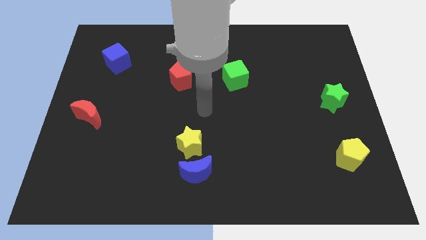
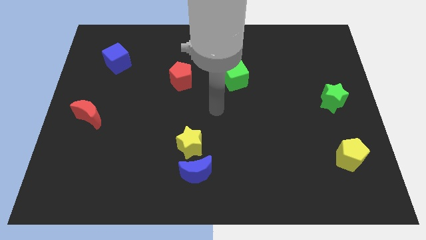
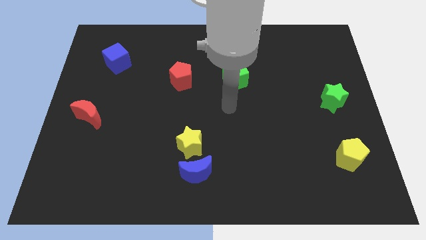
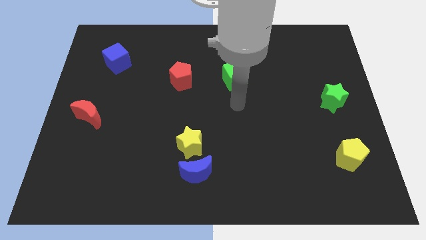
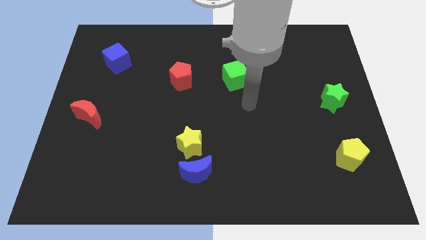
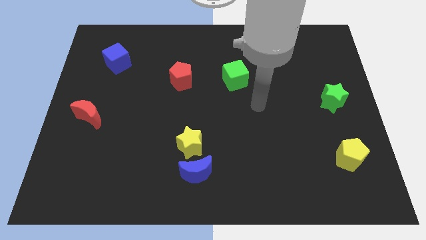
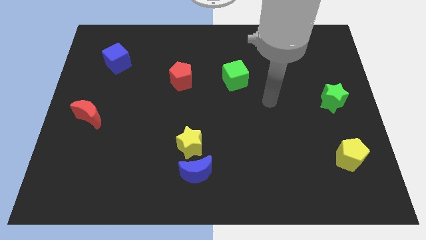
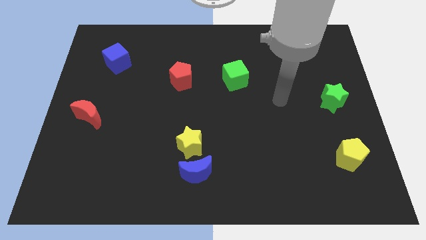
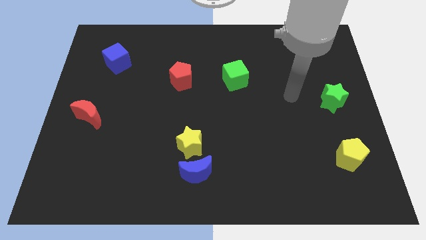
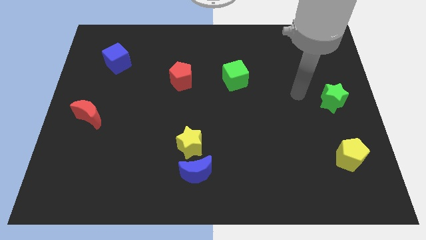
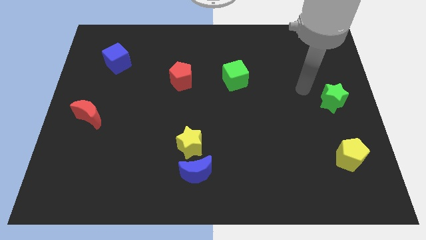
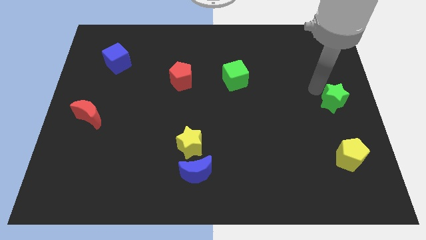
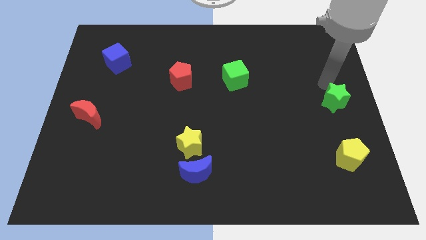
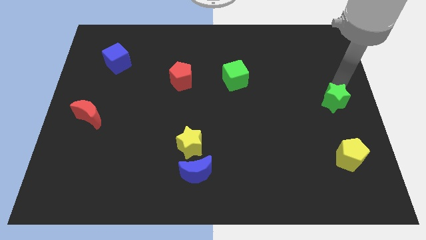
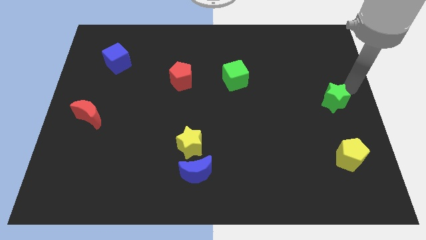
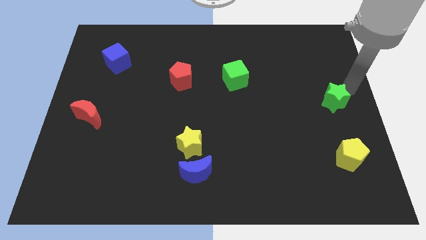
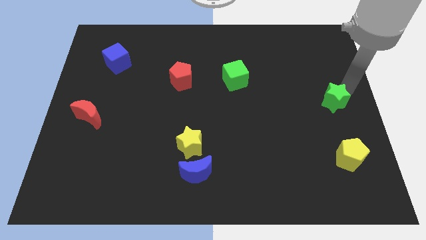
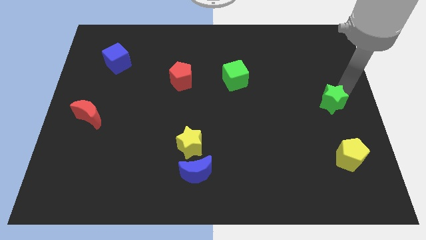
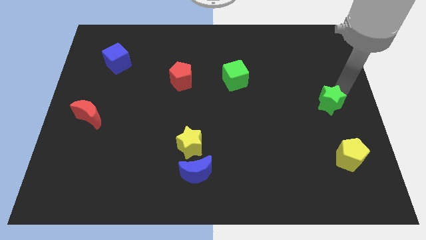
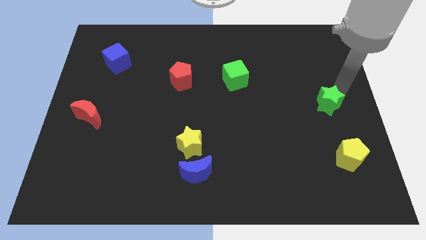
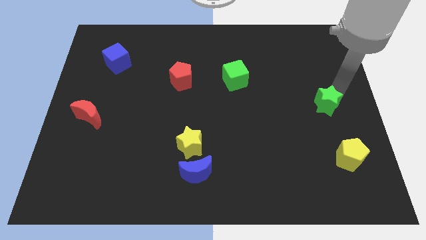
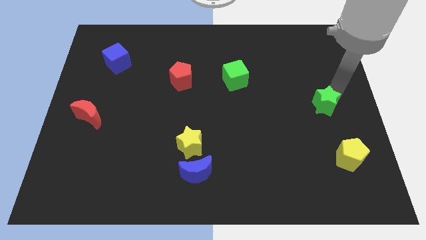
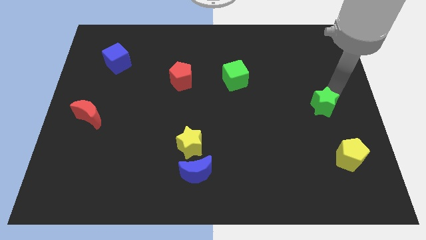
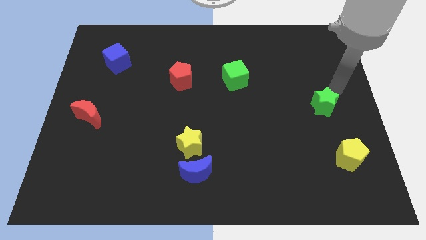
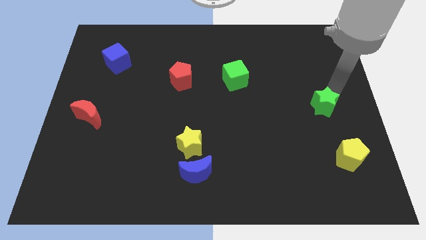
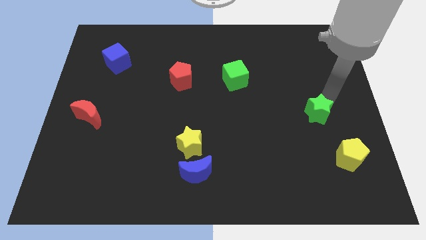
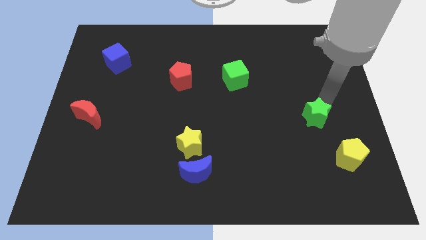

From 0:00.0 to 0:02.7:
push the green star down and then left a bit

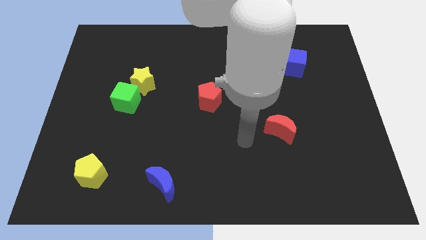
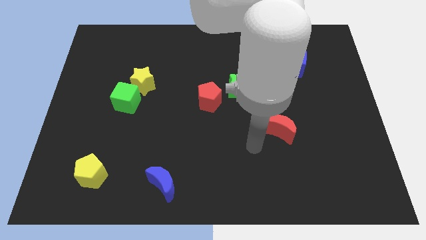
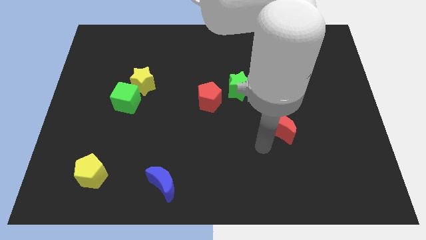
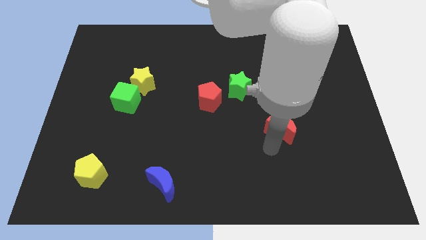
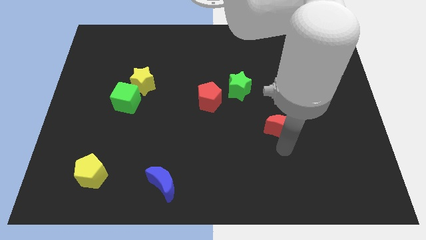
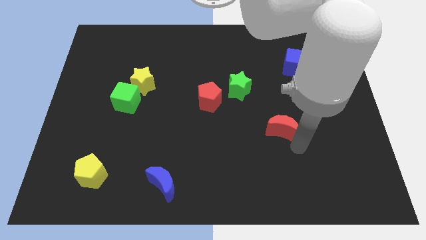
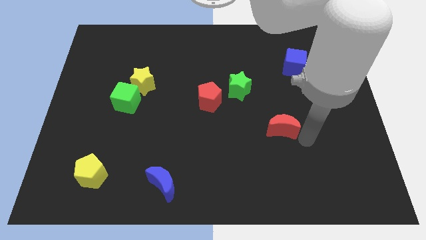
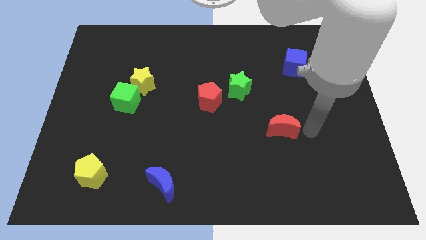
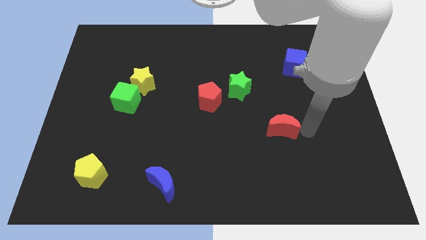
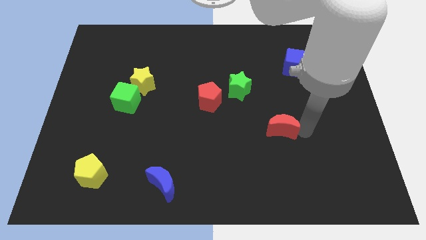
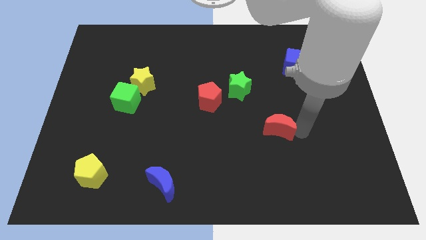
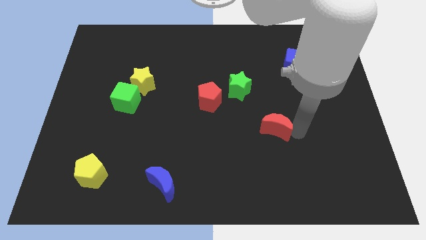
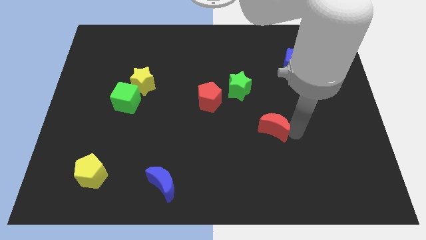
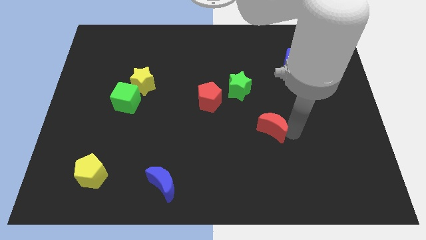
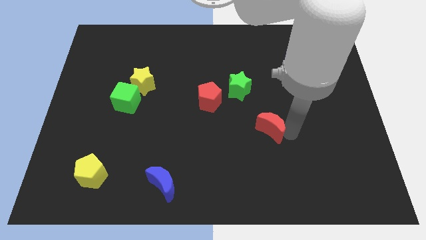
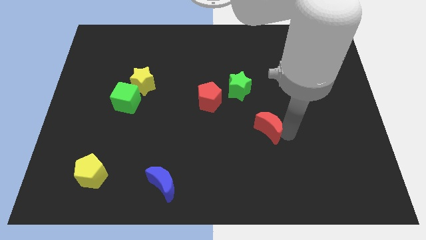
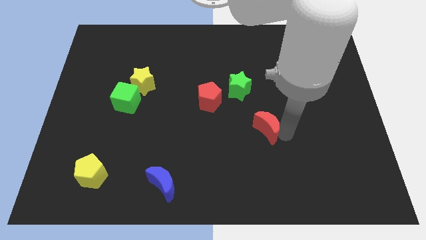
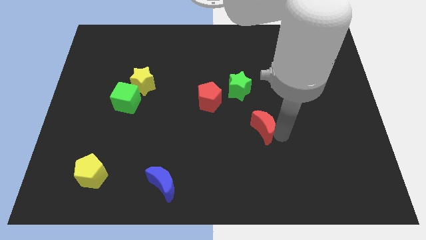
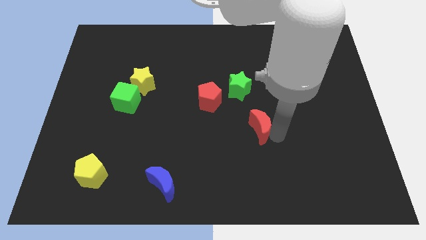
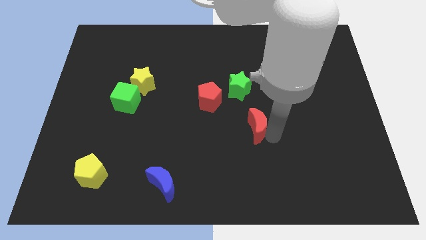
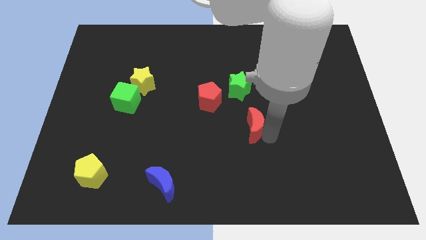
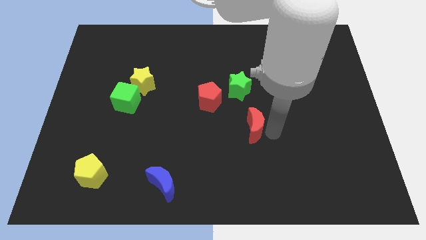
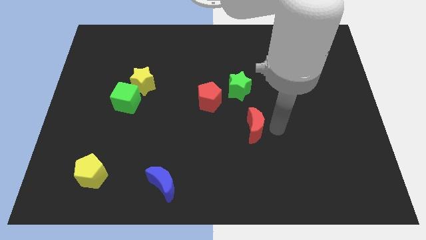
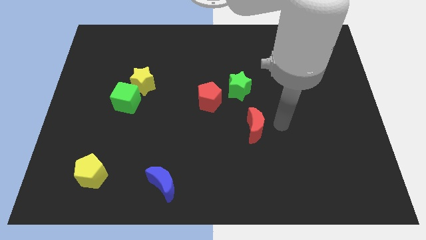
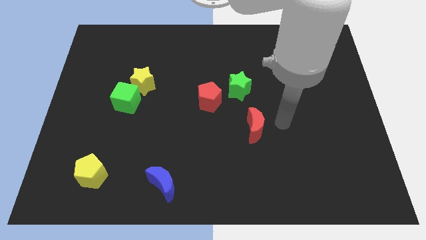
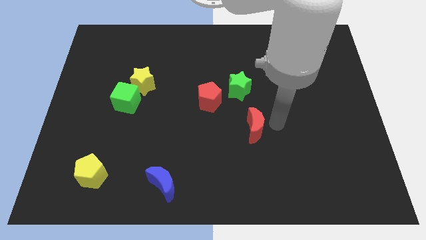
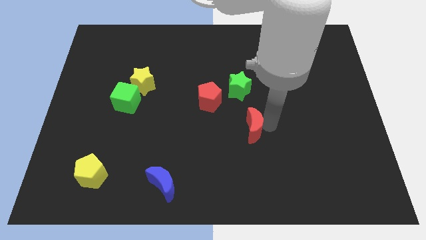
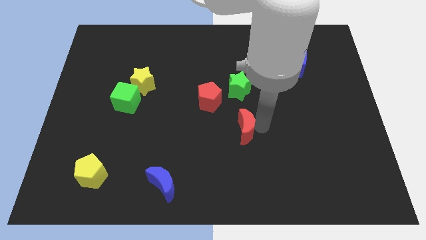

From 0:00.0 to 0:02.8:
slightly move the red moon left

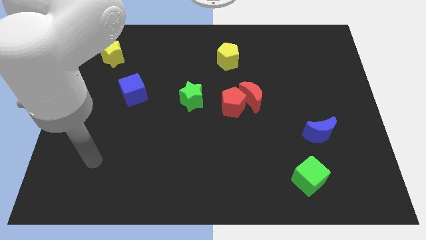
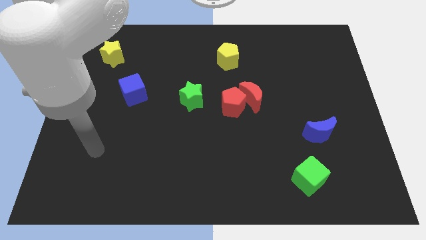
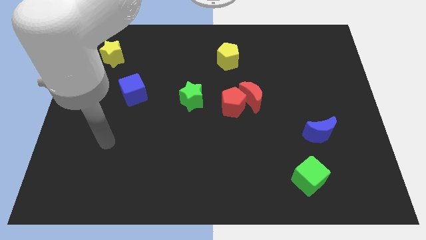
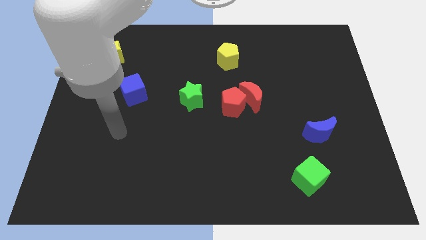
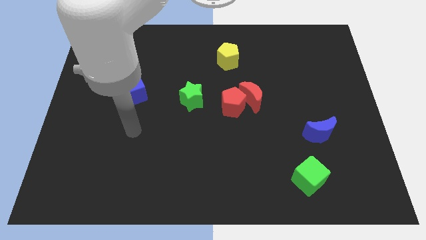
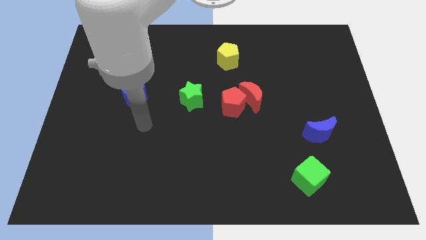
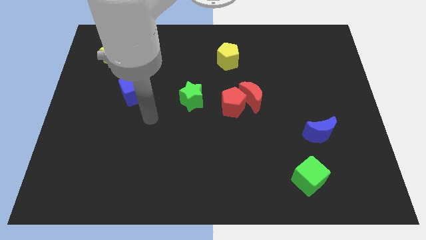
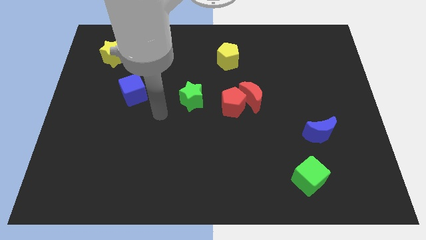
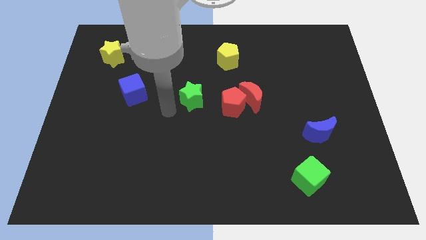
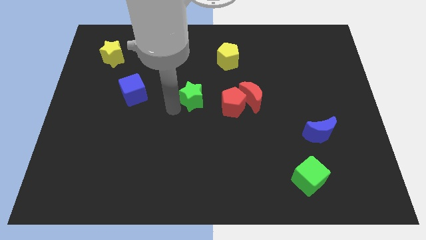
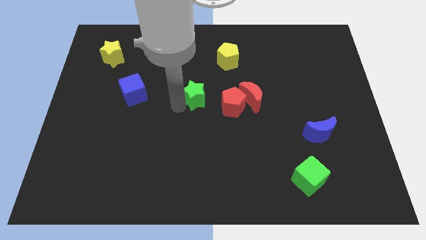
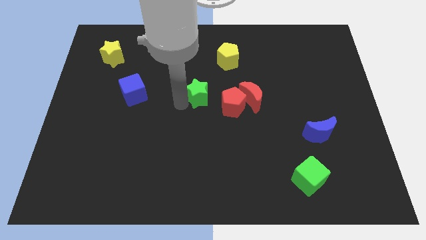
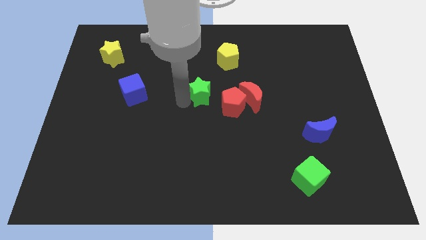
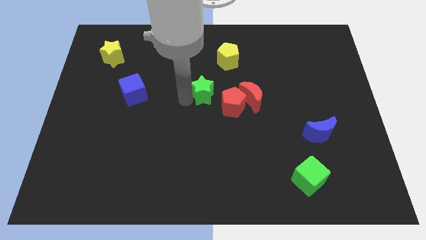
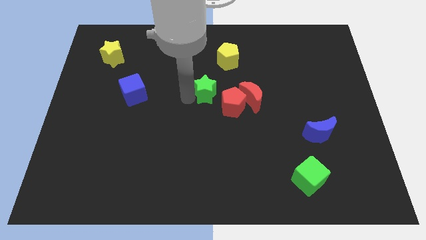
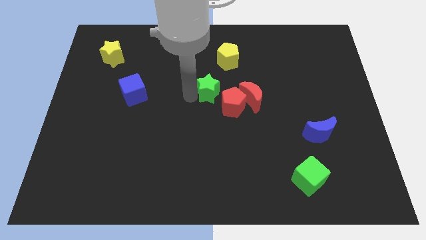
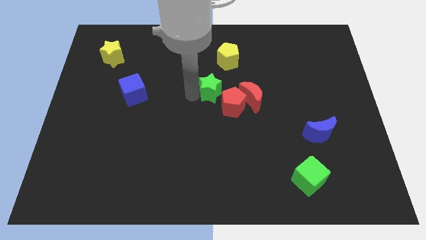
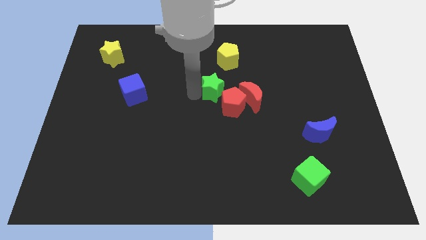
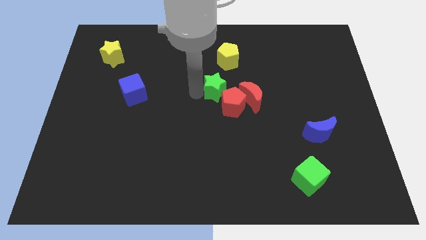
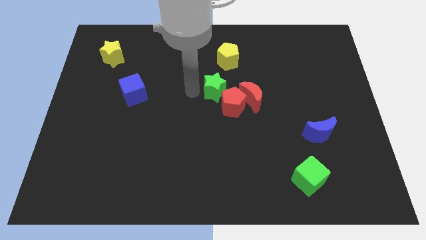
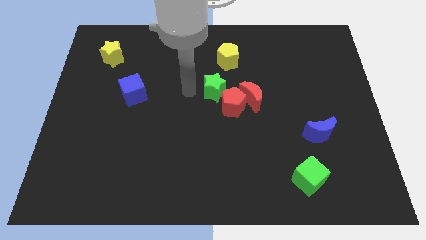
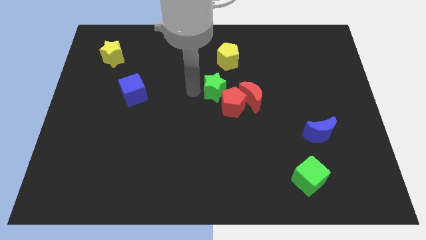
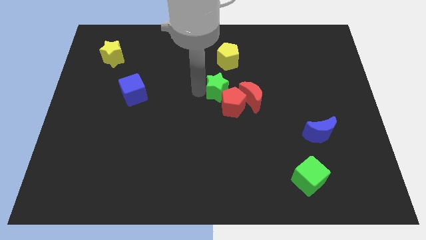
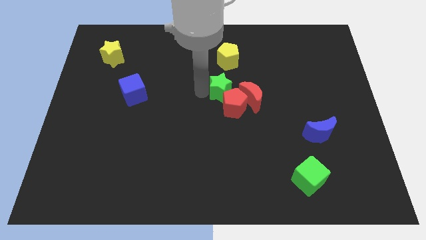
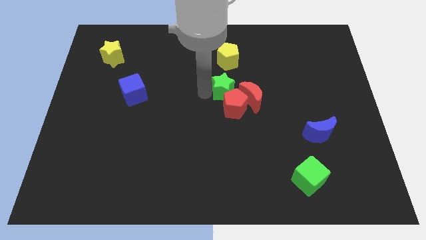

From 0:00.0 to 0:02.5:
slide the green star right somewhat
